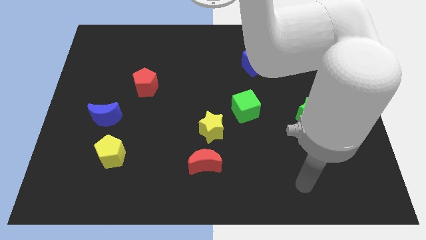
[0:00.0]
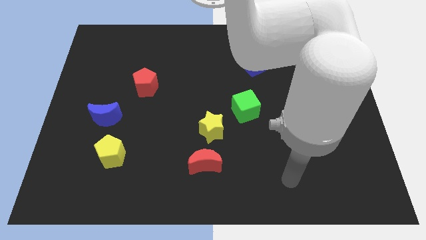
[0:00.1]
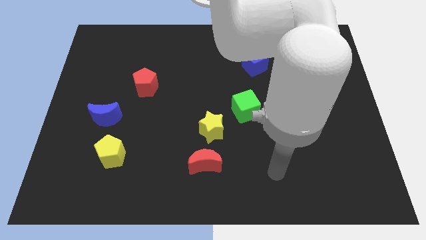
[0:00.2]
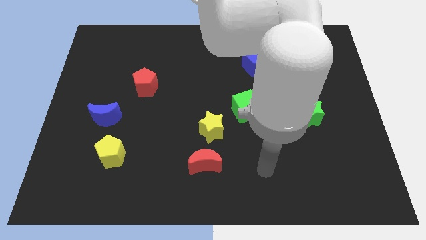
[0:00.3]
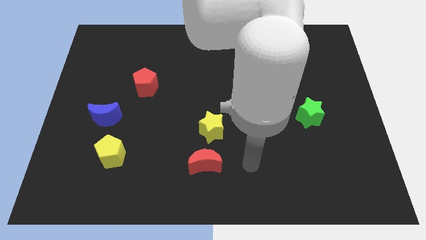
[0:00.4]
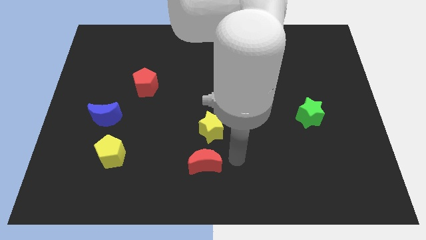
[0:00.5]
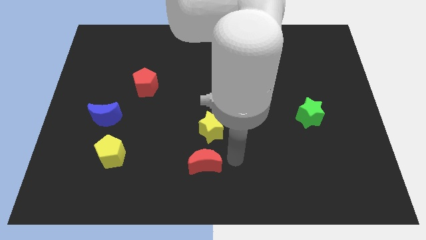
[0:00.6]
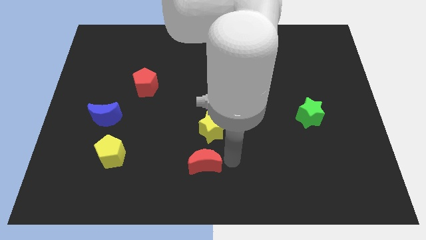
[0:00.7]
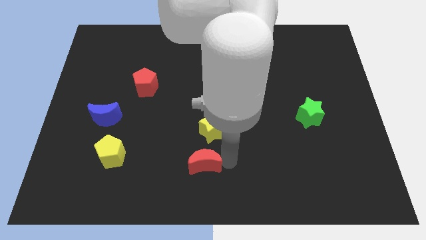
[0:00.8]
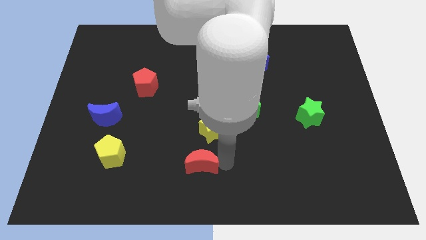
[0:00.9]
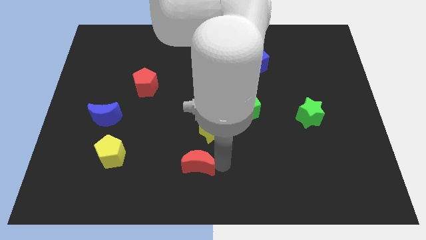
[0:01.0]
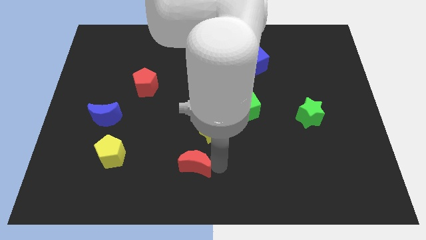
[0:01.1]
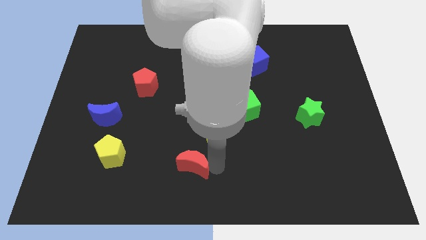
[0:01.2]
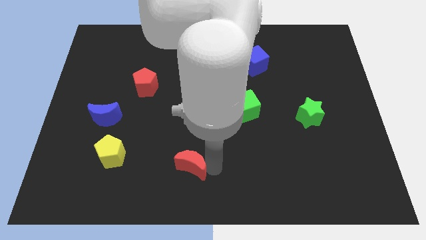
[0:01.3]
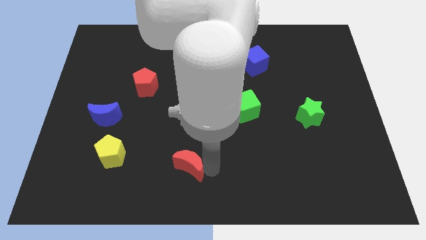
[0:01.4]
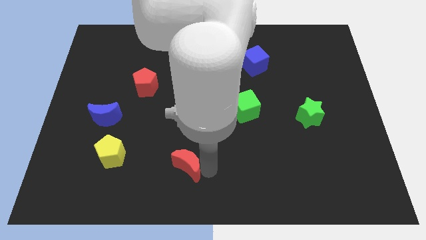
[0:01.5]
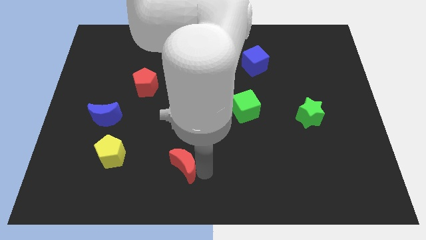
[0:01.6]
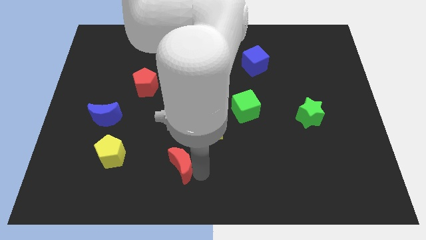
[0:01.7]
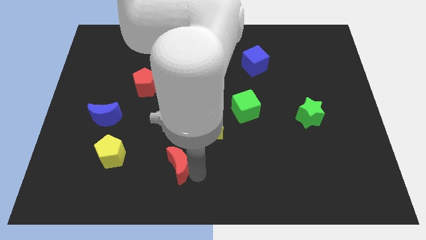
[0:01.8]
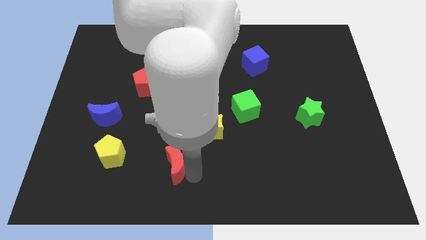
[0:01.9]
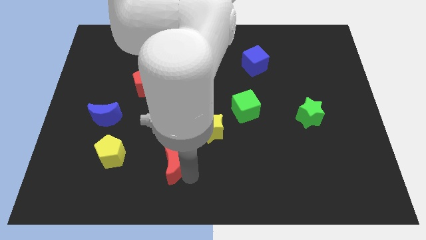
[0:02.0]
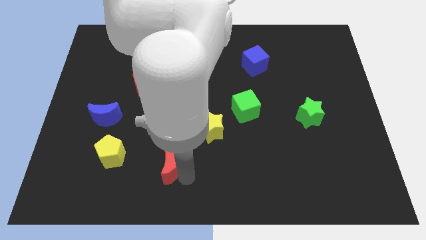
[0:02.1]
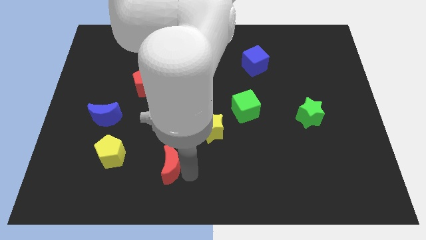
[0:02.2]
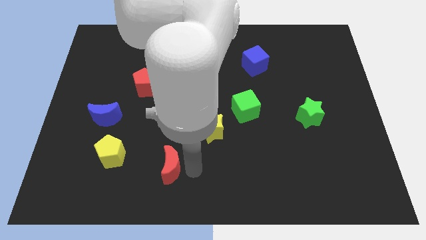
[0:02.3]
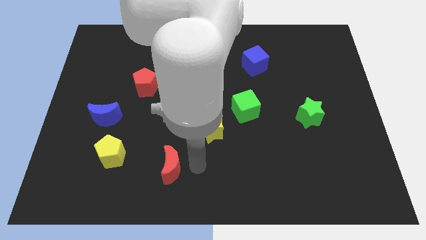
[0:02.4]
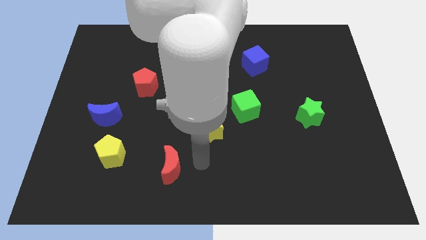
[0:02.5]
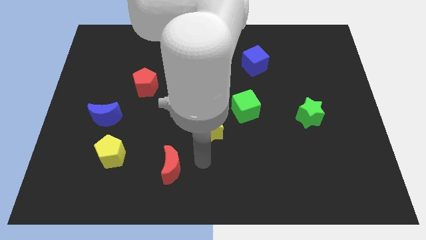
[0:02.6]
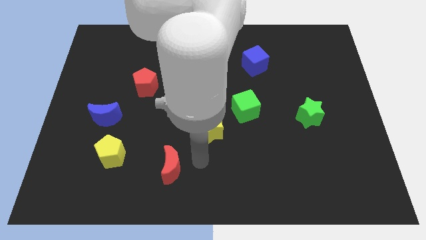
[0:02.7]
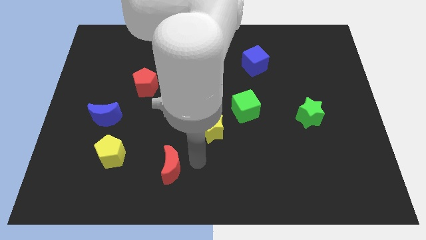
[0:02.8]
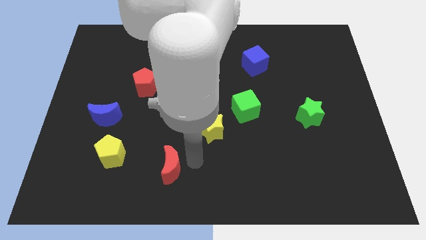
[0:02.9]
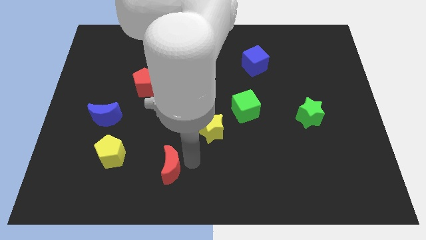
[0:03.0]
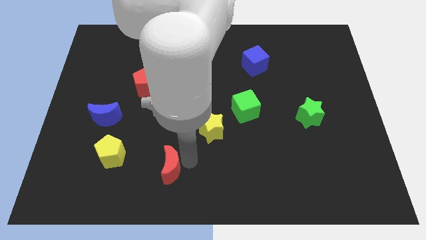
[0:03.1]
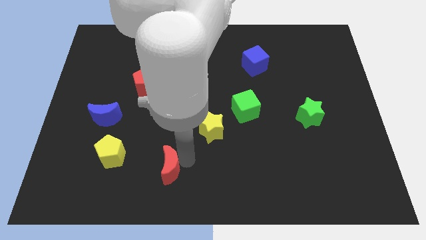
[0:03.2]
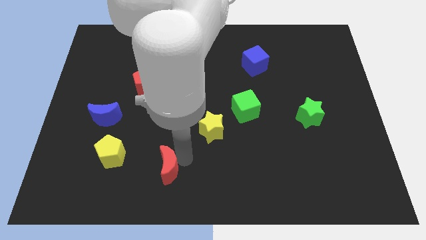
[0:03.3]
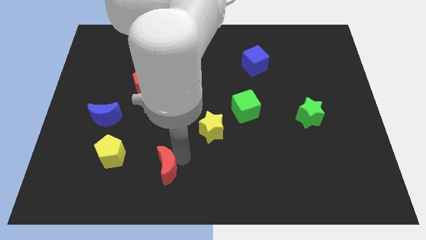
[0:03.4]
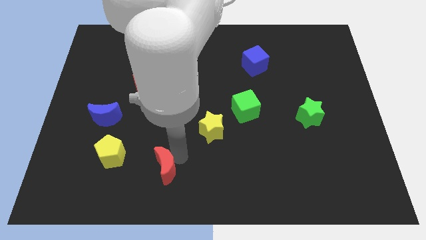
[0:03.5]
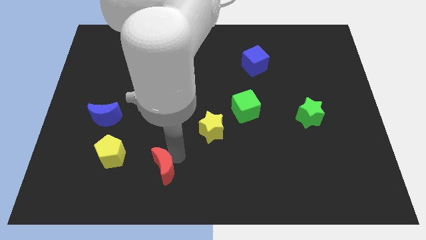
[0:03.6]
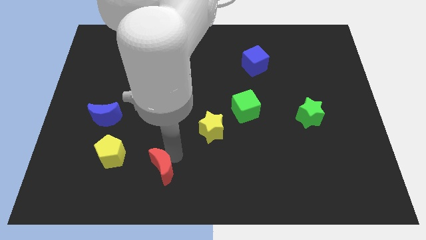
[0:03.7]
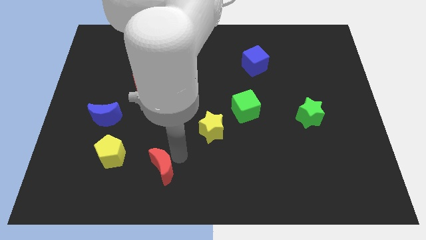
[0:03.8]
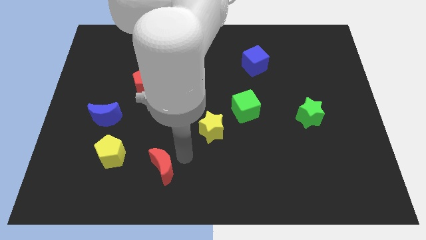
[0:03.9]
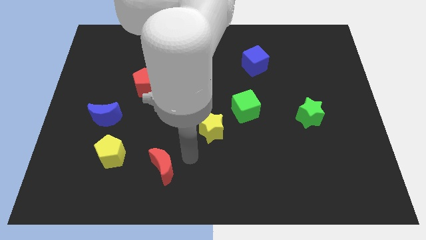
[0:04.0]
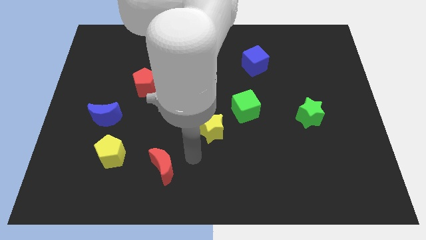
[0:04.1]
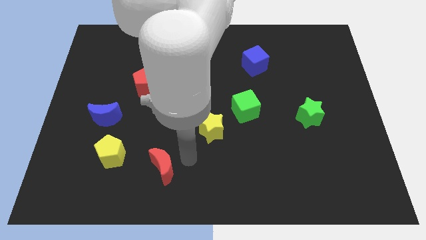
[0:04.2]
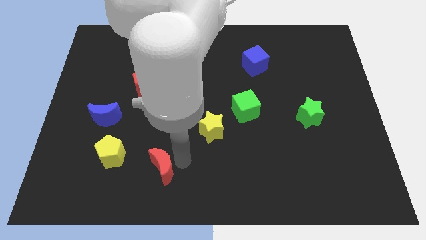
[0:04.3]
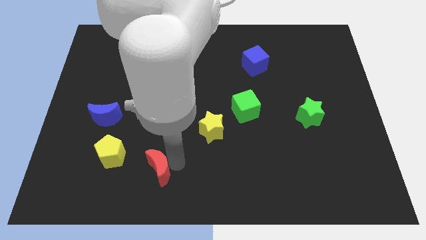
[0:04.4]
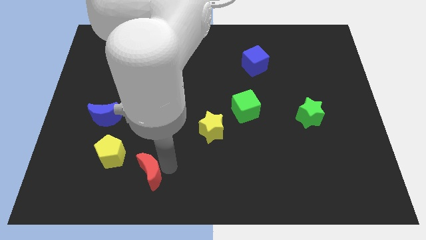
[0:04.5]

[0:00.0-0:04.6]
move the red moon to the bottom right side of the yellow pentagon

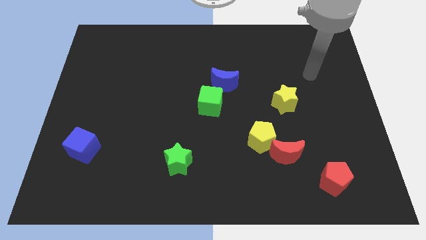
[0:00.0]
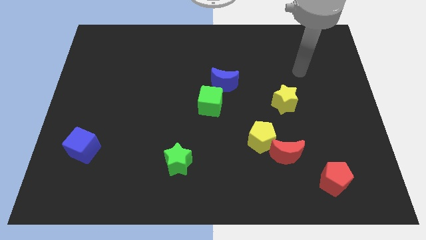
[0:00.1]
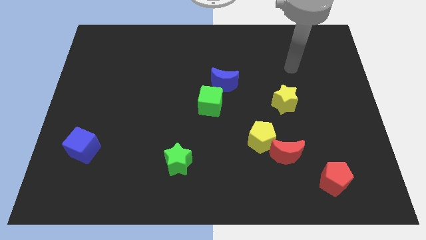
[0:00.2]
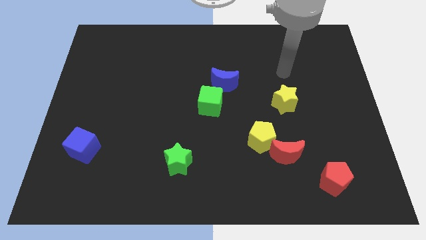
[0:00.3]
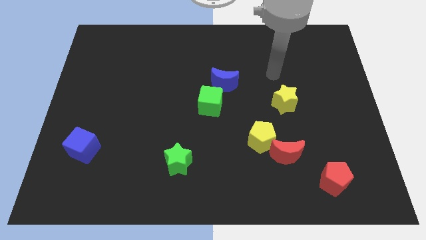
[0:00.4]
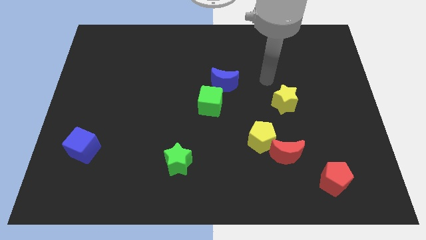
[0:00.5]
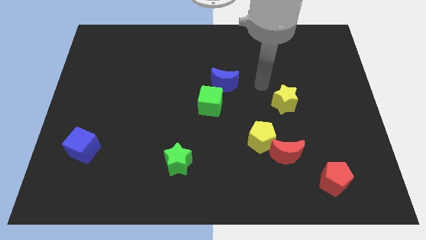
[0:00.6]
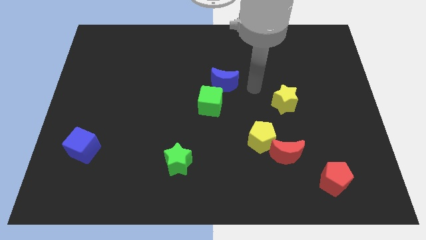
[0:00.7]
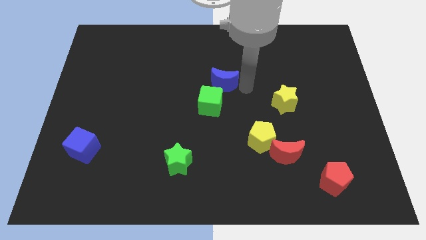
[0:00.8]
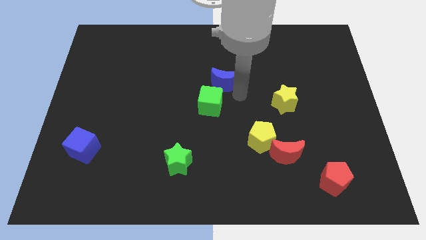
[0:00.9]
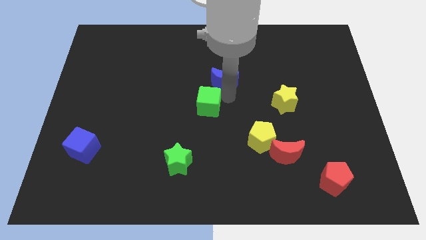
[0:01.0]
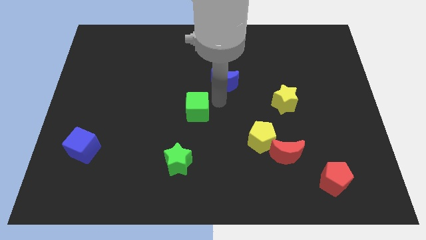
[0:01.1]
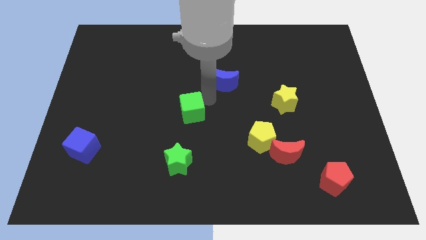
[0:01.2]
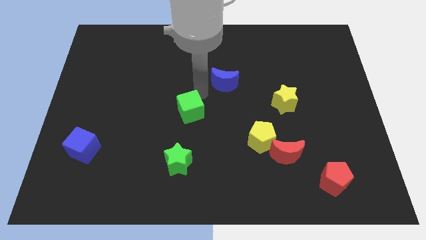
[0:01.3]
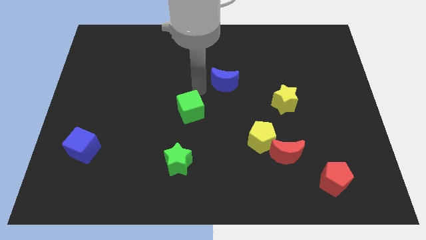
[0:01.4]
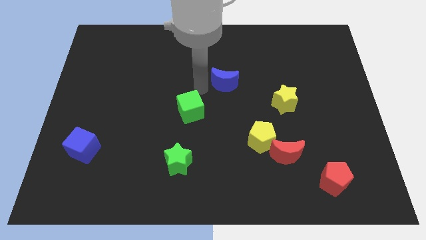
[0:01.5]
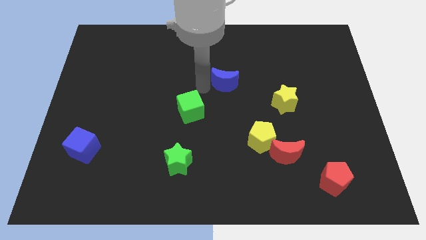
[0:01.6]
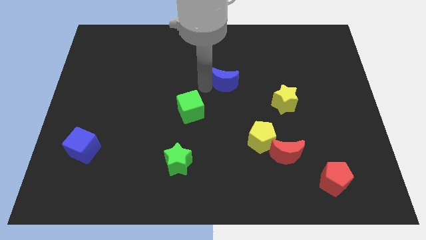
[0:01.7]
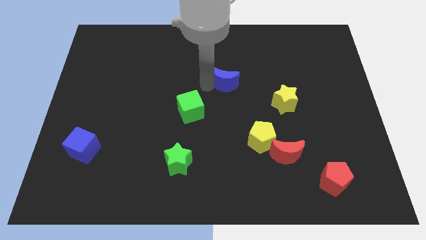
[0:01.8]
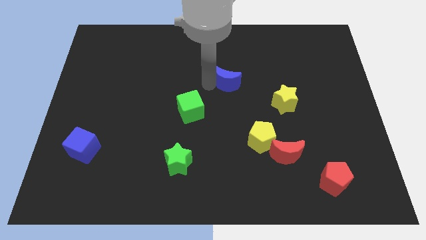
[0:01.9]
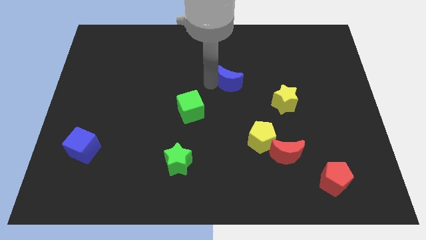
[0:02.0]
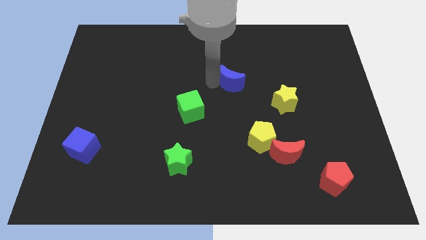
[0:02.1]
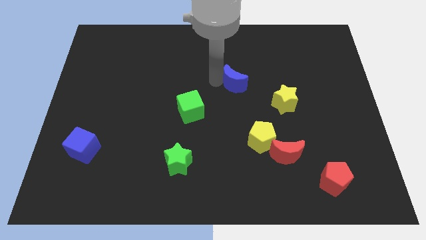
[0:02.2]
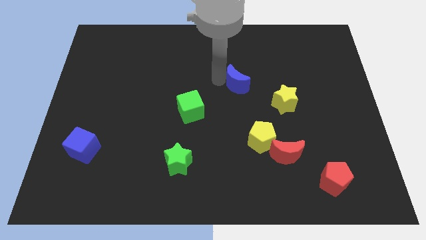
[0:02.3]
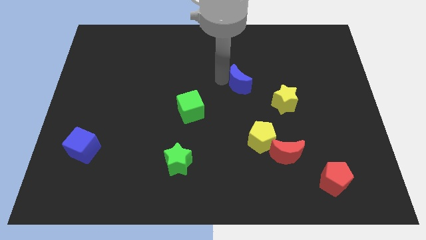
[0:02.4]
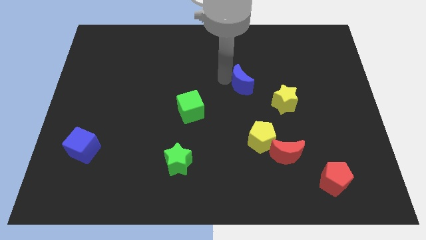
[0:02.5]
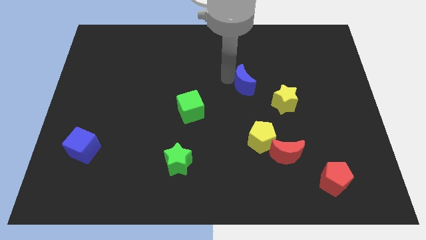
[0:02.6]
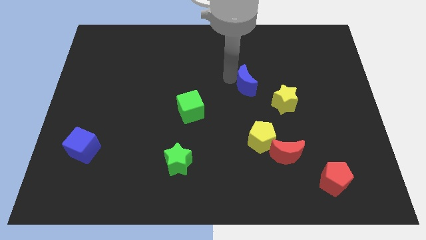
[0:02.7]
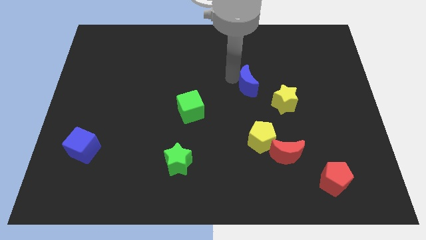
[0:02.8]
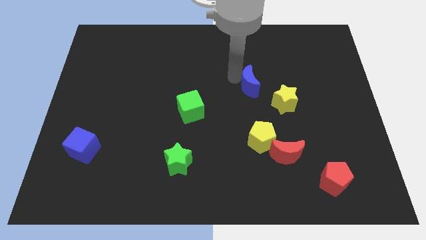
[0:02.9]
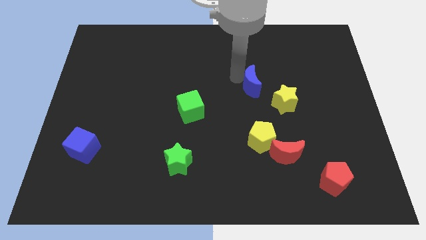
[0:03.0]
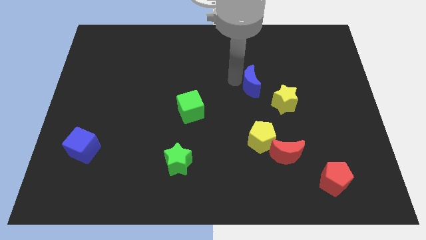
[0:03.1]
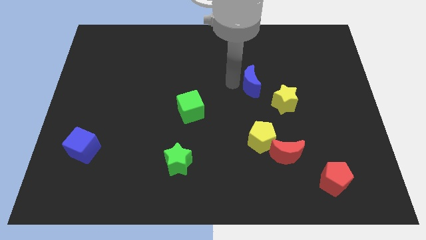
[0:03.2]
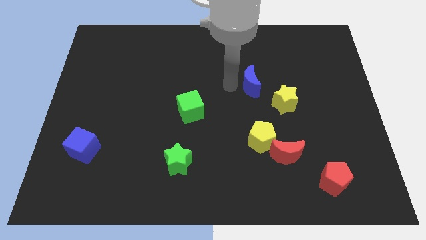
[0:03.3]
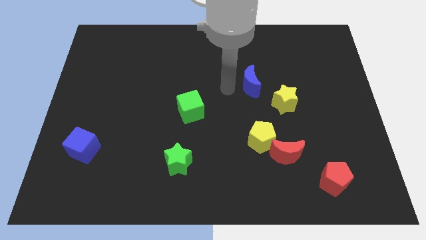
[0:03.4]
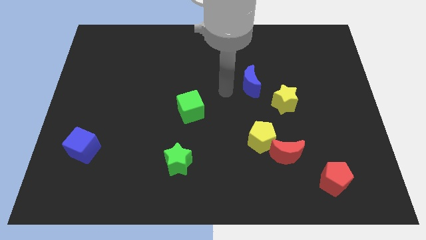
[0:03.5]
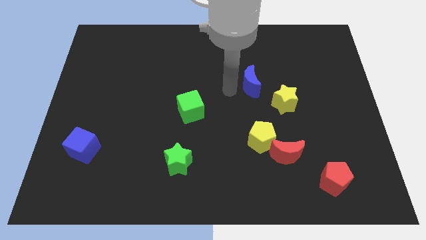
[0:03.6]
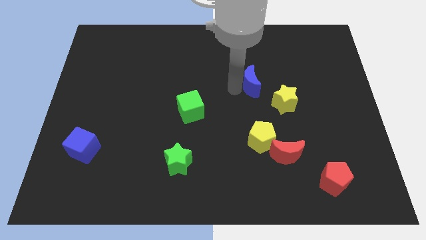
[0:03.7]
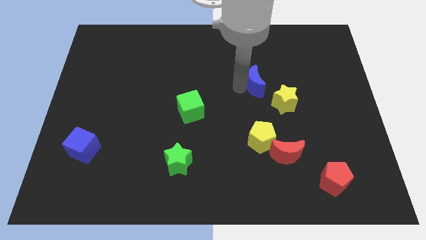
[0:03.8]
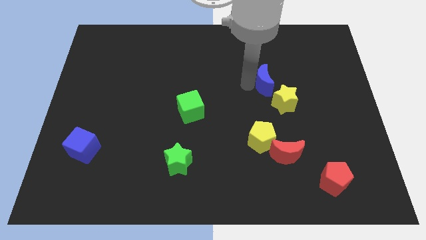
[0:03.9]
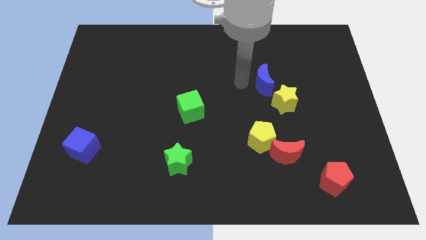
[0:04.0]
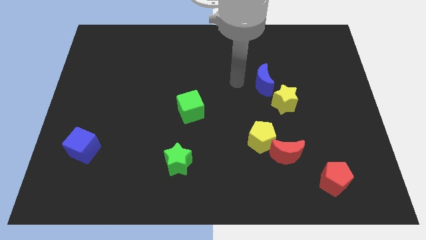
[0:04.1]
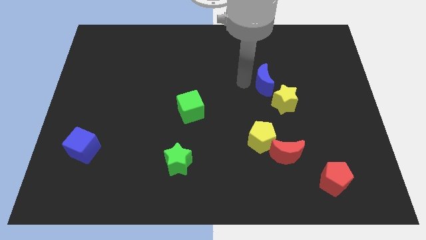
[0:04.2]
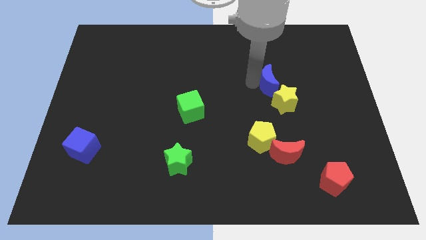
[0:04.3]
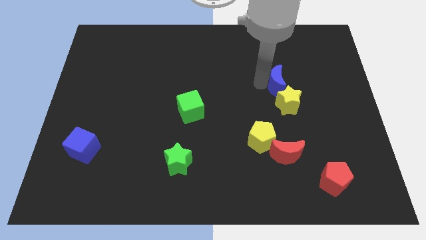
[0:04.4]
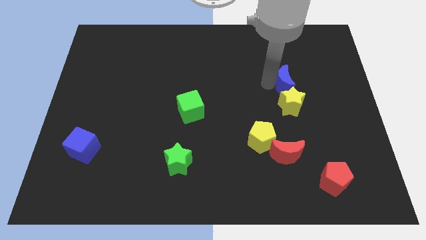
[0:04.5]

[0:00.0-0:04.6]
slide the blue moon to the top right side of the yellow star
